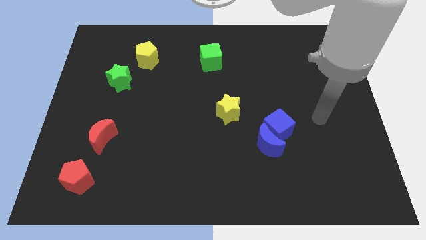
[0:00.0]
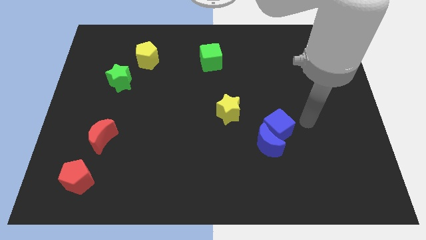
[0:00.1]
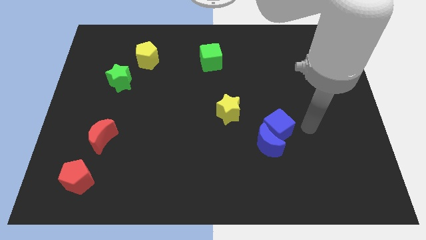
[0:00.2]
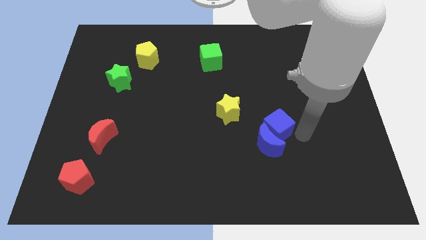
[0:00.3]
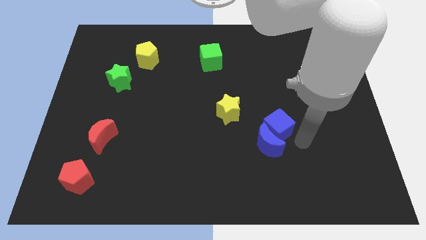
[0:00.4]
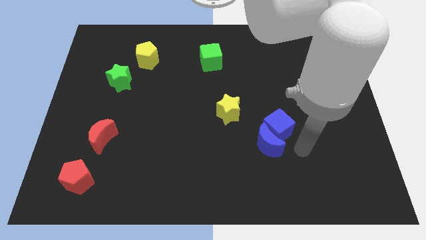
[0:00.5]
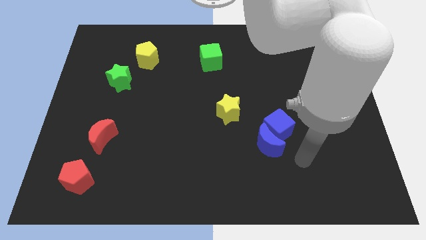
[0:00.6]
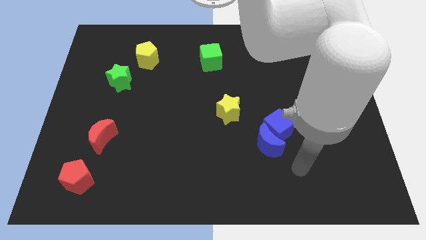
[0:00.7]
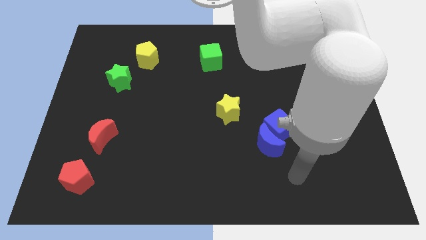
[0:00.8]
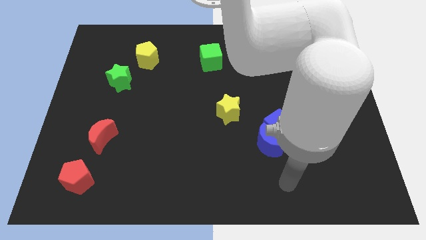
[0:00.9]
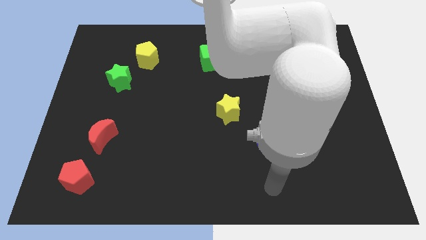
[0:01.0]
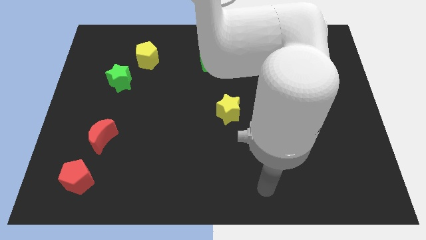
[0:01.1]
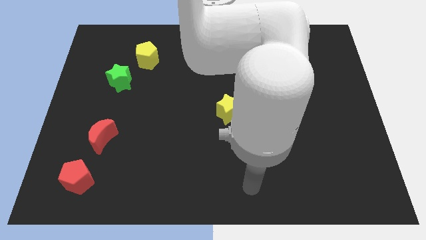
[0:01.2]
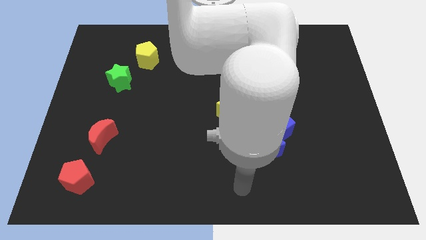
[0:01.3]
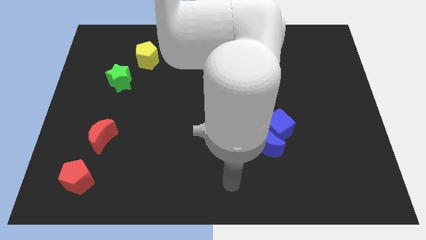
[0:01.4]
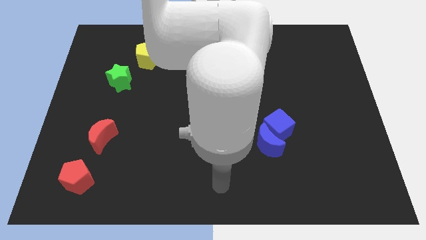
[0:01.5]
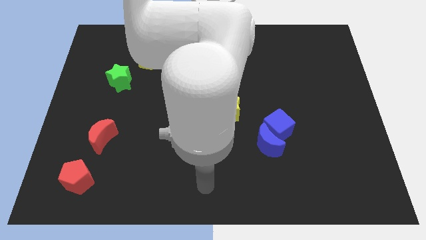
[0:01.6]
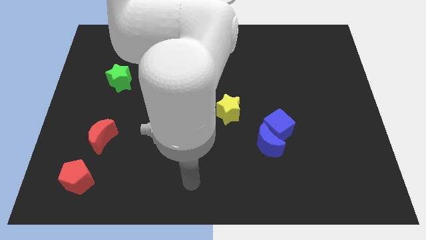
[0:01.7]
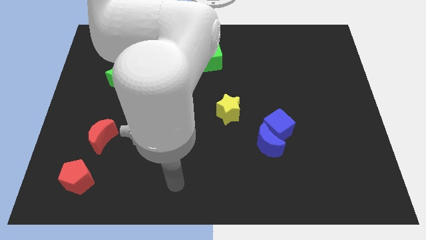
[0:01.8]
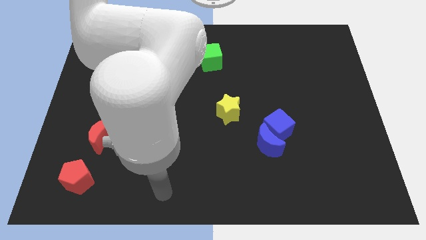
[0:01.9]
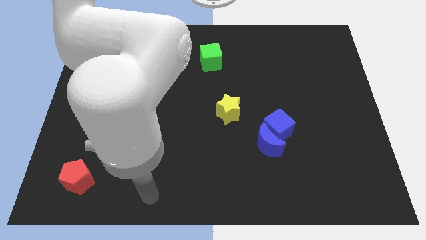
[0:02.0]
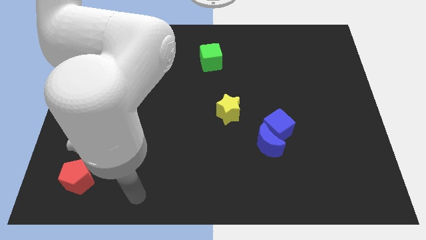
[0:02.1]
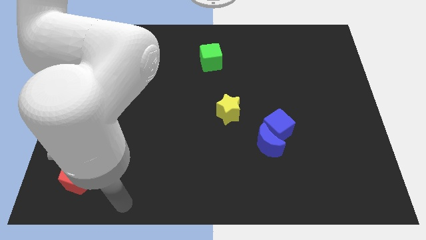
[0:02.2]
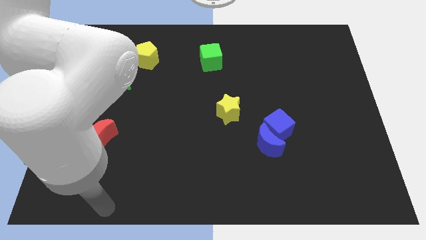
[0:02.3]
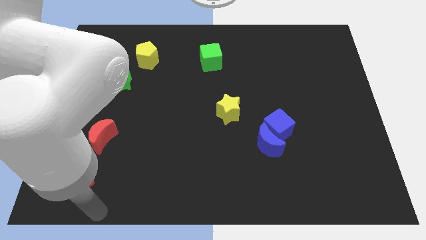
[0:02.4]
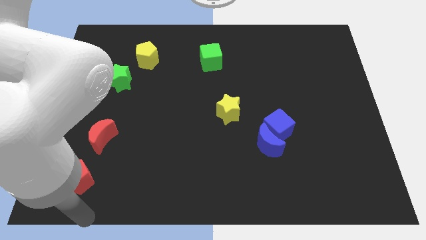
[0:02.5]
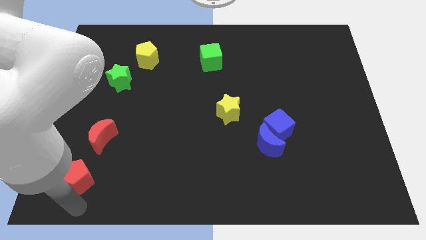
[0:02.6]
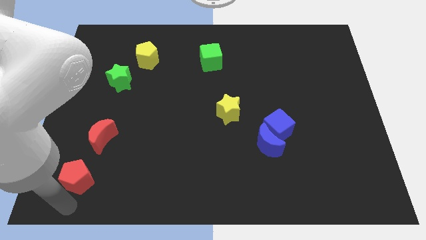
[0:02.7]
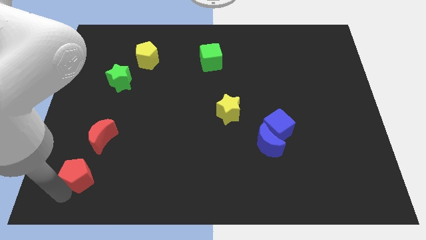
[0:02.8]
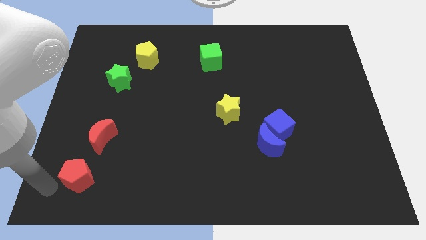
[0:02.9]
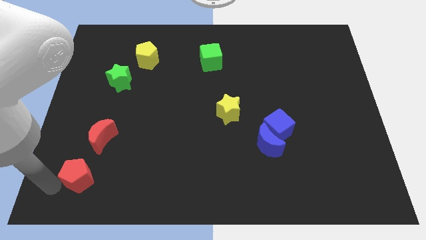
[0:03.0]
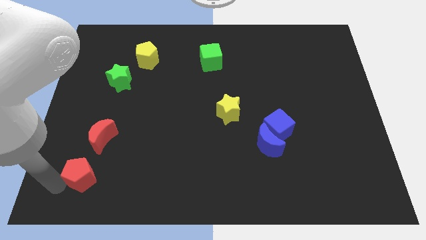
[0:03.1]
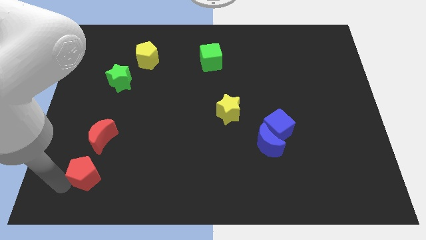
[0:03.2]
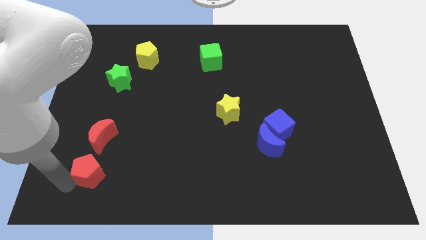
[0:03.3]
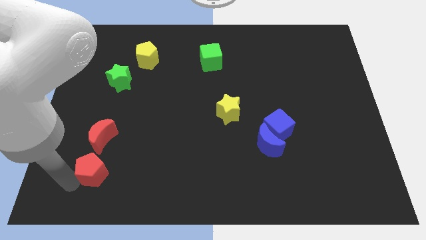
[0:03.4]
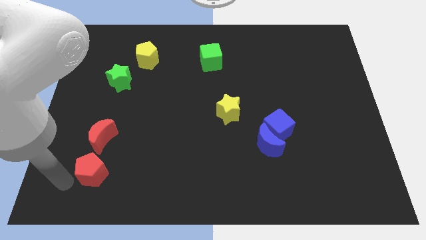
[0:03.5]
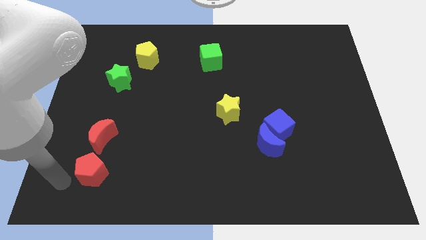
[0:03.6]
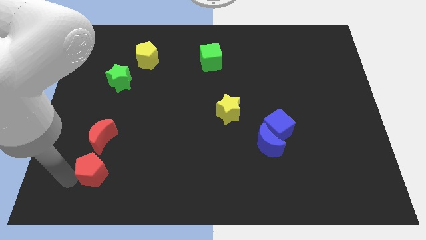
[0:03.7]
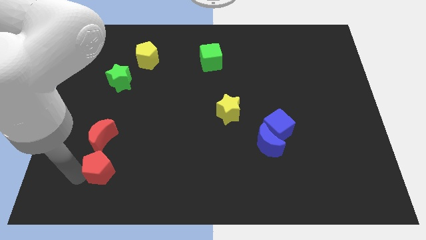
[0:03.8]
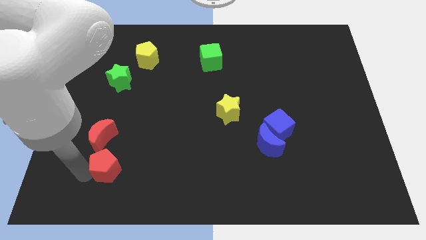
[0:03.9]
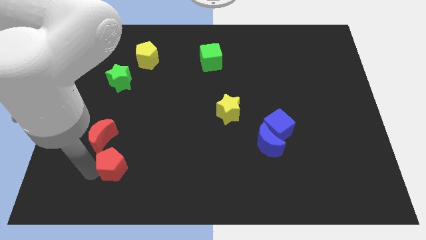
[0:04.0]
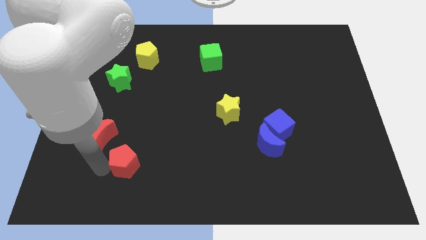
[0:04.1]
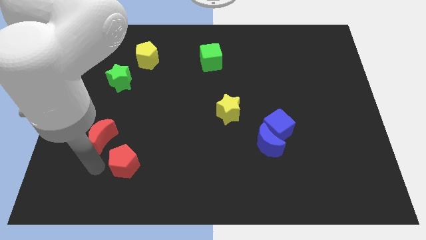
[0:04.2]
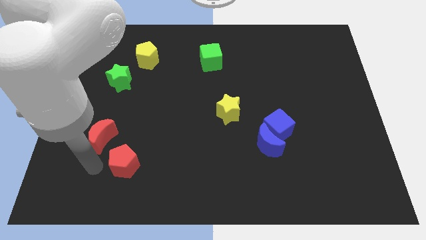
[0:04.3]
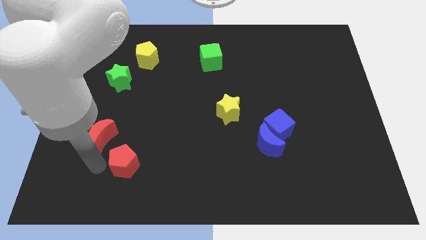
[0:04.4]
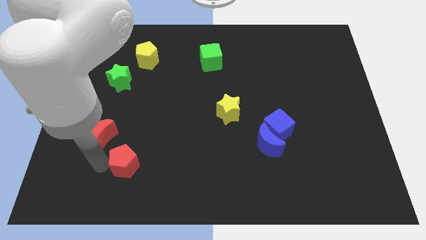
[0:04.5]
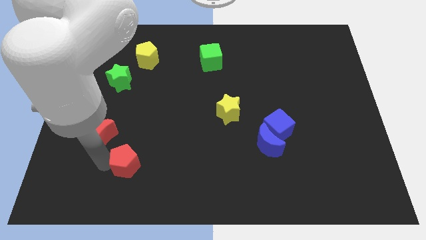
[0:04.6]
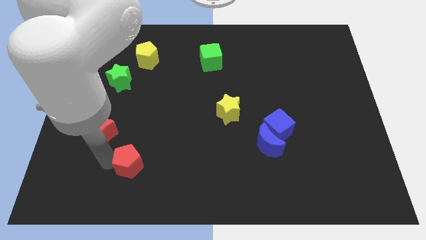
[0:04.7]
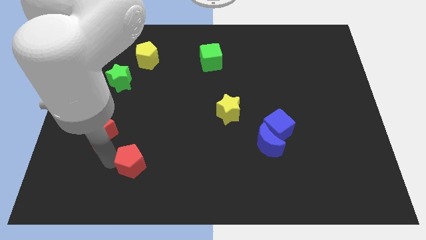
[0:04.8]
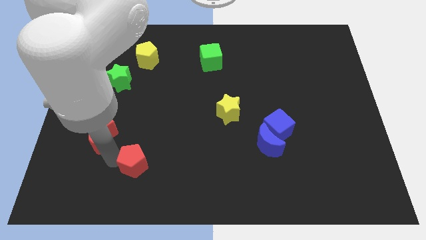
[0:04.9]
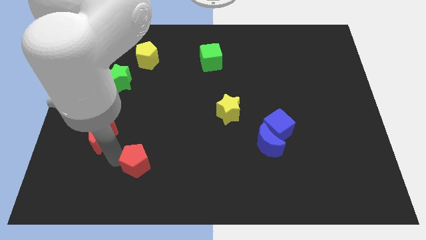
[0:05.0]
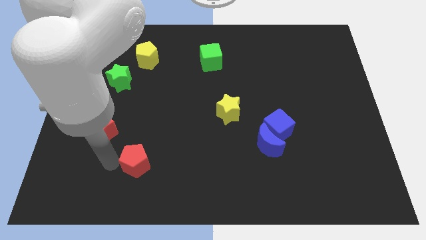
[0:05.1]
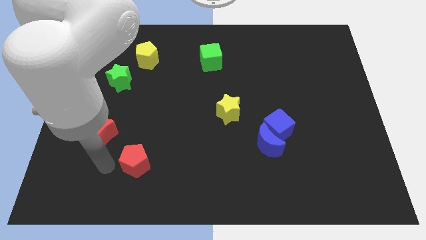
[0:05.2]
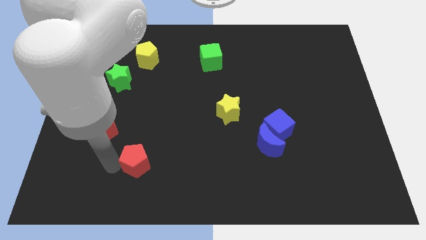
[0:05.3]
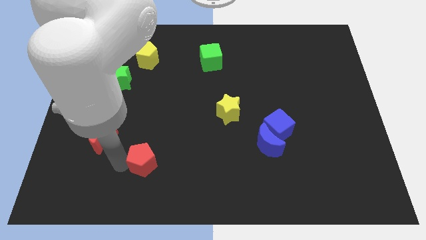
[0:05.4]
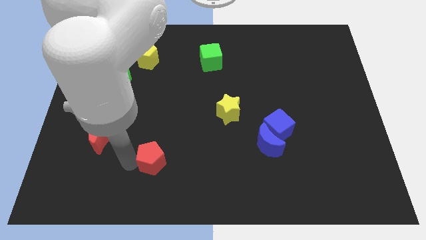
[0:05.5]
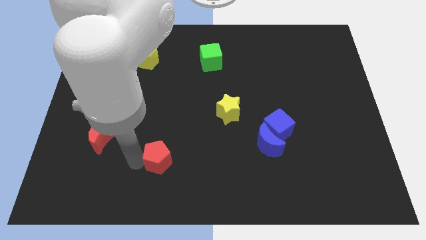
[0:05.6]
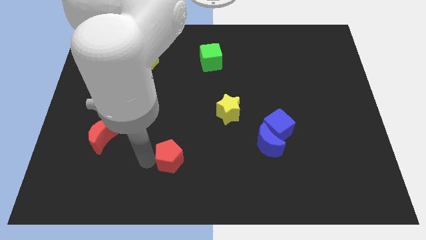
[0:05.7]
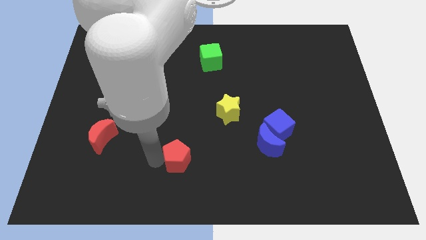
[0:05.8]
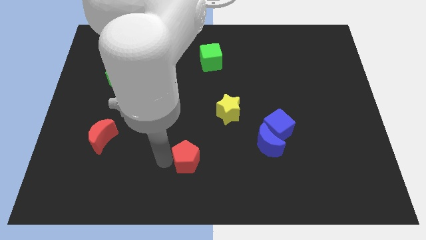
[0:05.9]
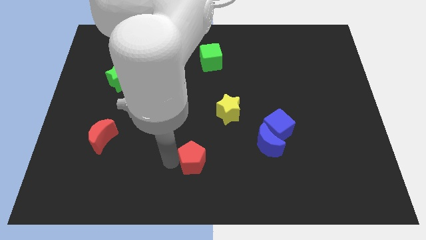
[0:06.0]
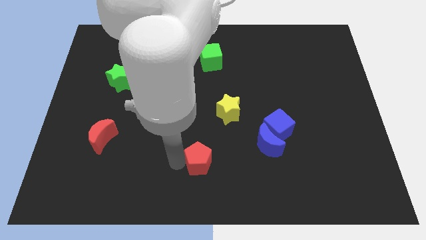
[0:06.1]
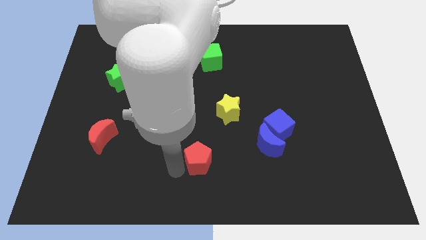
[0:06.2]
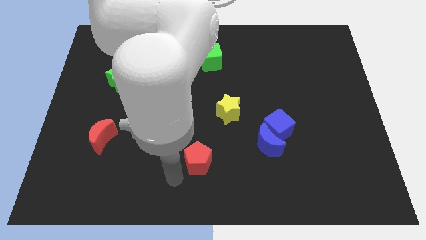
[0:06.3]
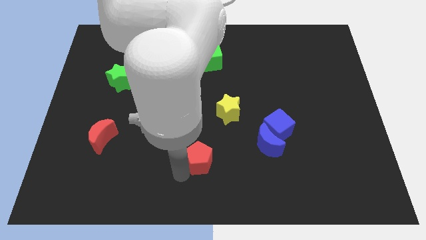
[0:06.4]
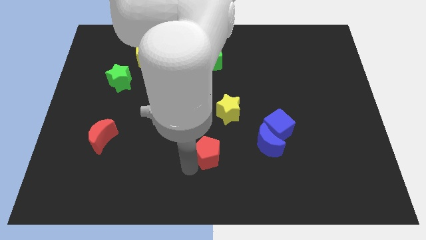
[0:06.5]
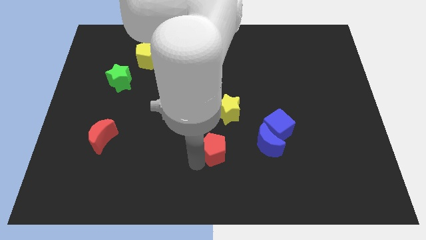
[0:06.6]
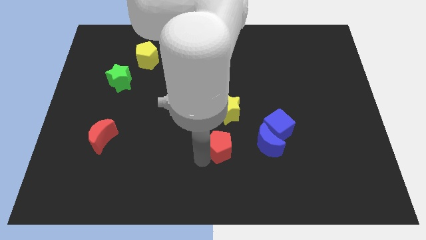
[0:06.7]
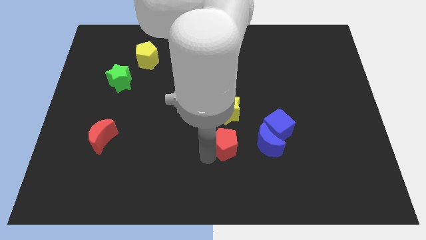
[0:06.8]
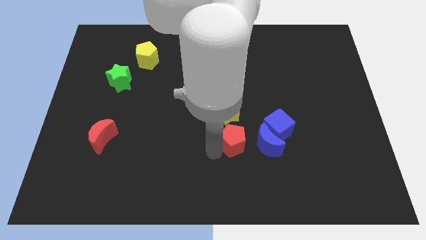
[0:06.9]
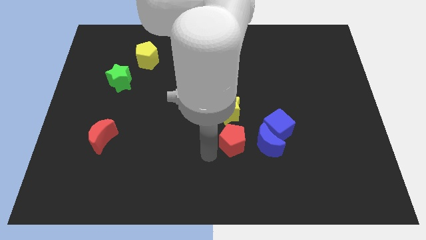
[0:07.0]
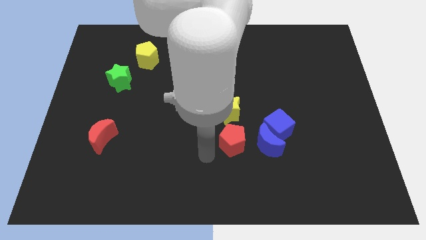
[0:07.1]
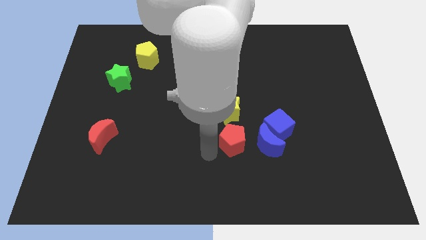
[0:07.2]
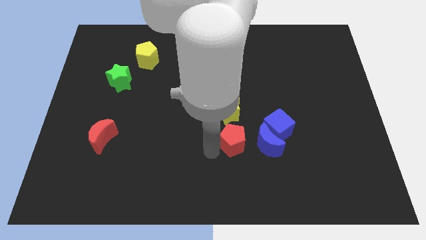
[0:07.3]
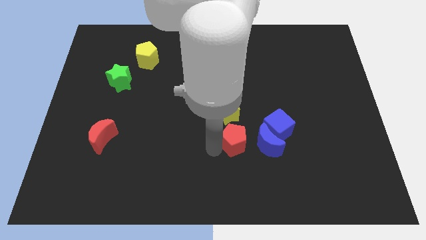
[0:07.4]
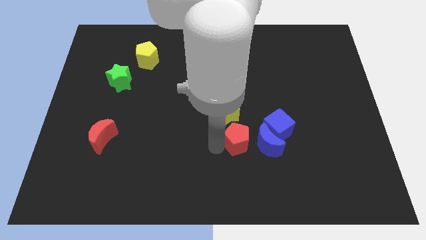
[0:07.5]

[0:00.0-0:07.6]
slide the red pentagon to the bottom right of the yellow star
